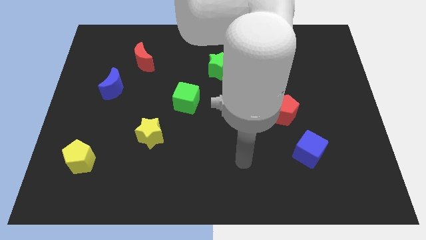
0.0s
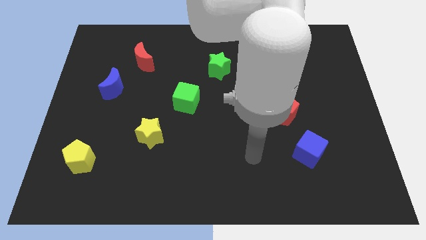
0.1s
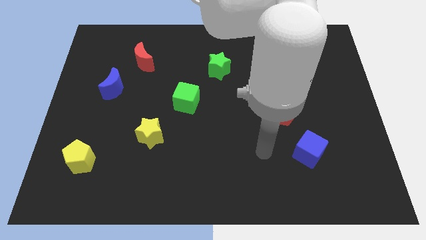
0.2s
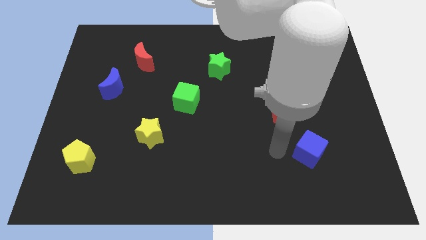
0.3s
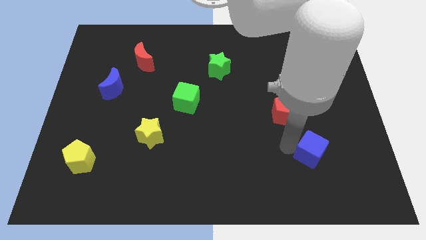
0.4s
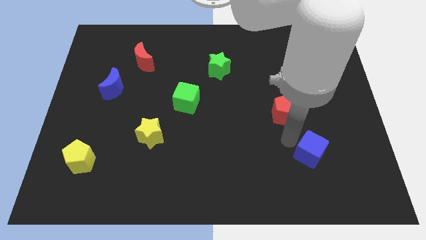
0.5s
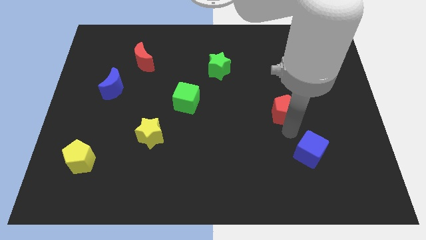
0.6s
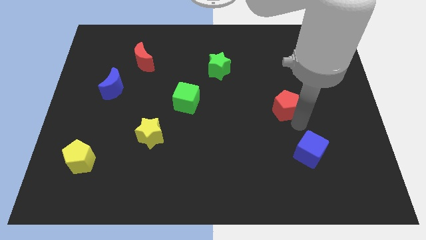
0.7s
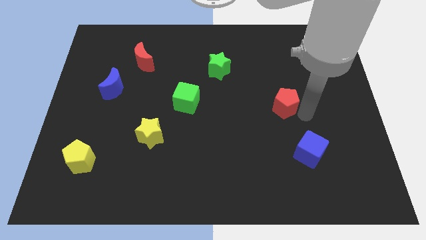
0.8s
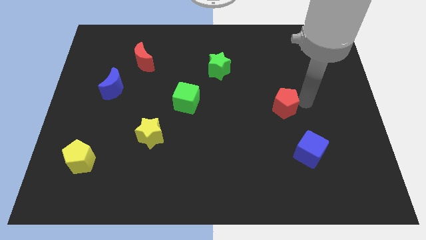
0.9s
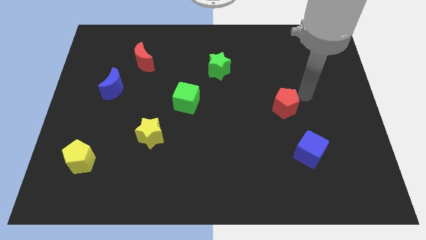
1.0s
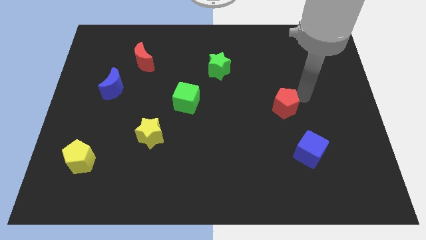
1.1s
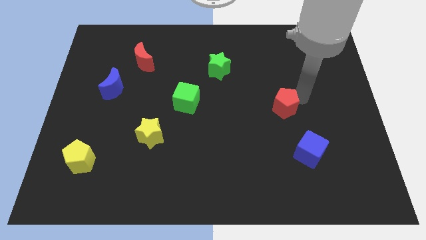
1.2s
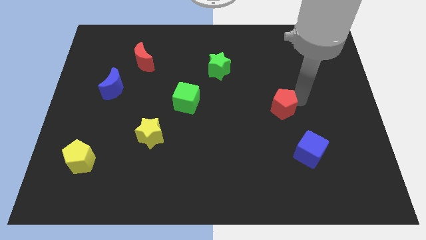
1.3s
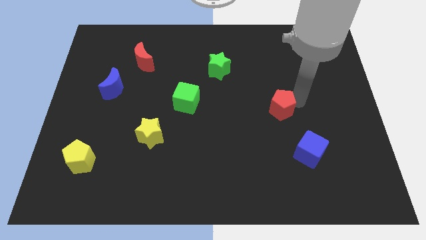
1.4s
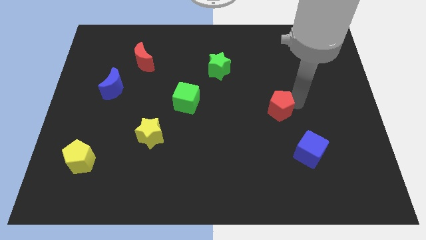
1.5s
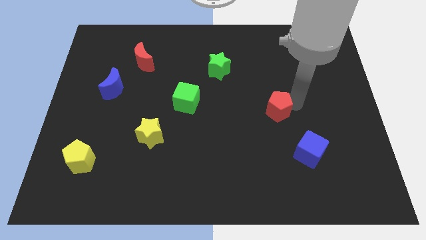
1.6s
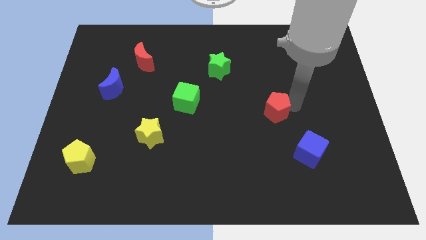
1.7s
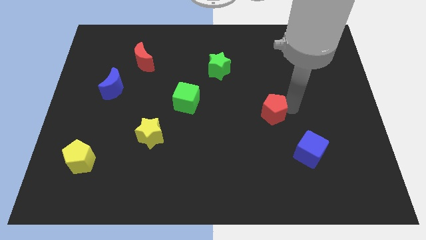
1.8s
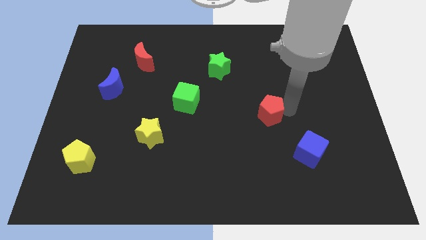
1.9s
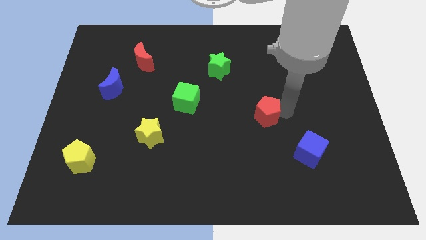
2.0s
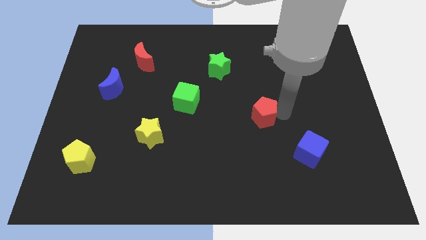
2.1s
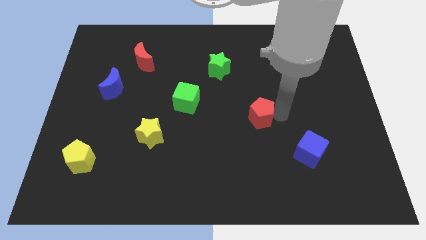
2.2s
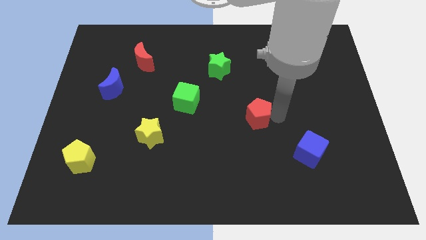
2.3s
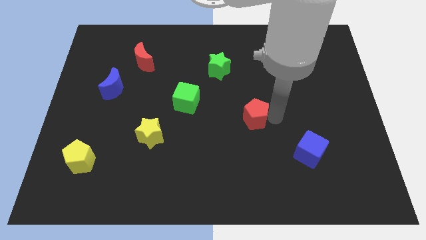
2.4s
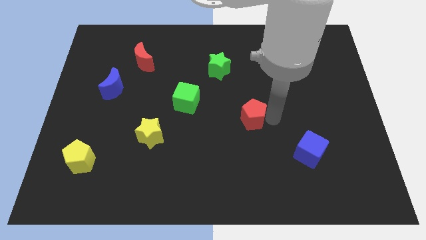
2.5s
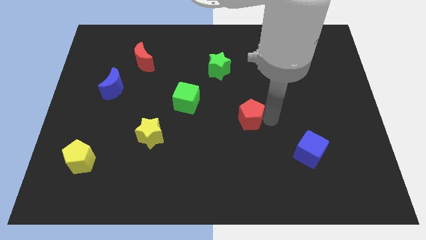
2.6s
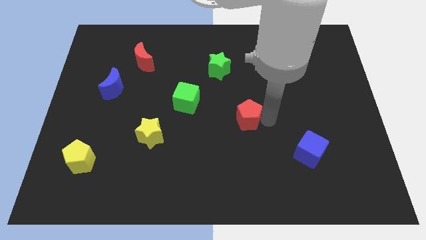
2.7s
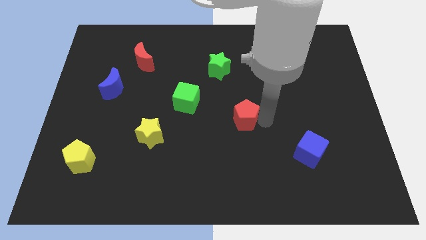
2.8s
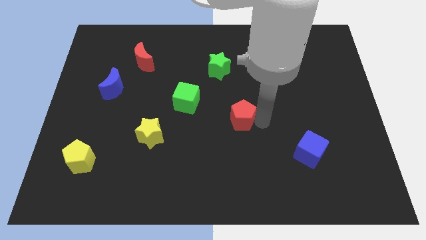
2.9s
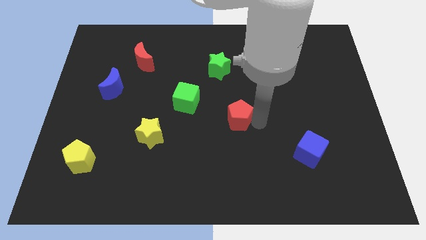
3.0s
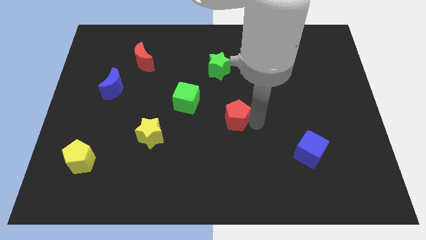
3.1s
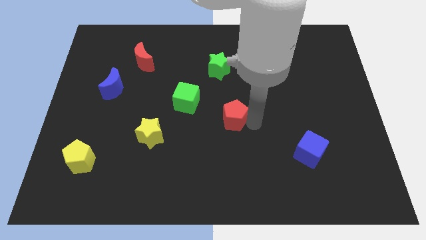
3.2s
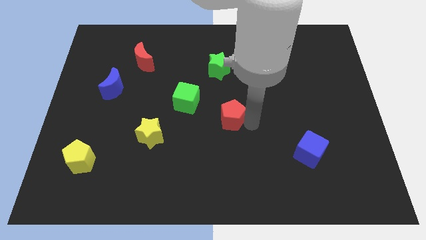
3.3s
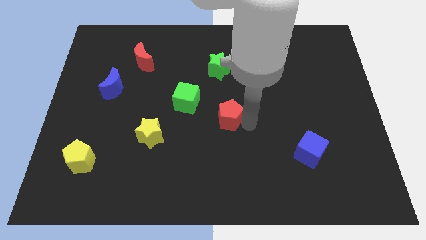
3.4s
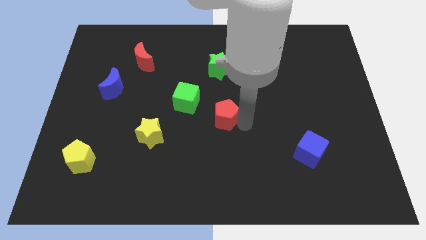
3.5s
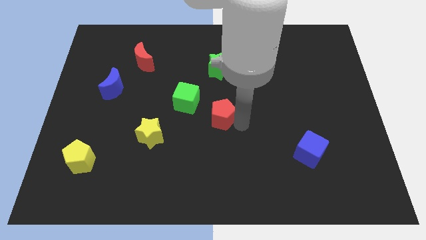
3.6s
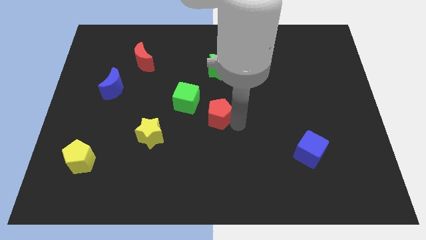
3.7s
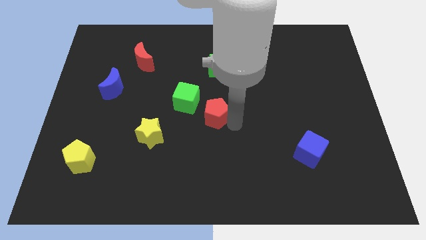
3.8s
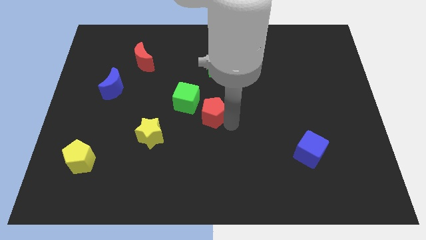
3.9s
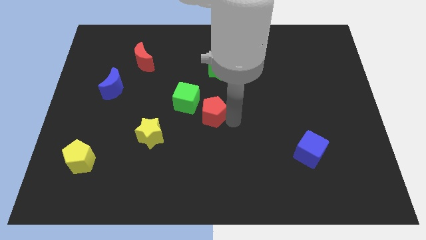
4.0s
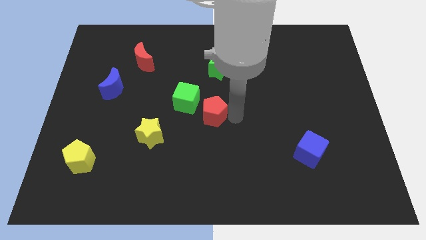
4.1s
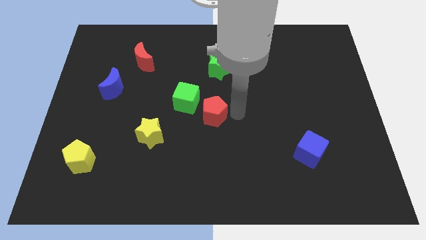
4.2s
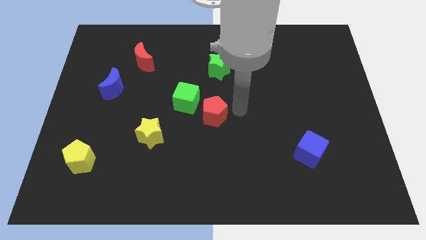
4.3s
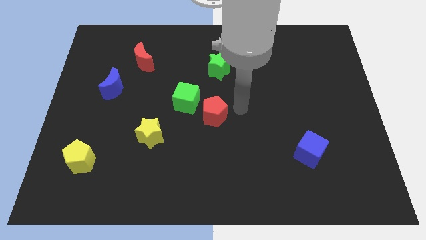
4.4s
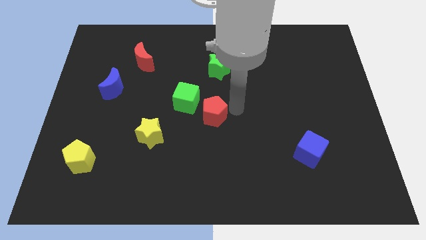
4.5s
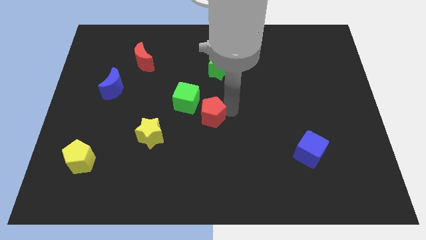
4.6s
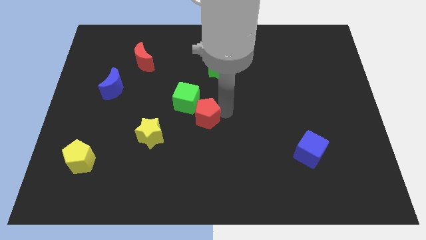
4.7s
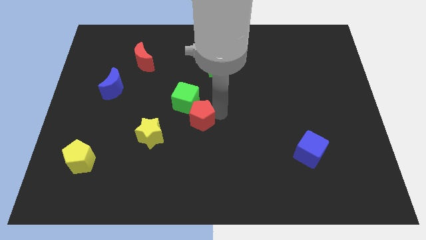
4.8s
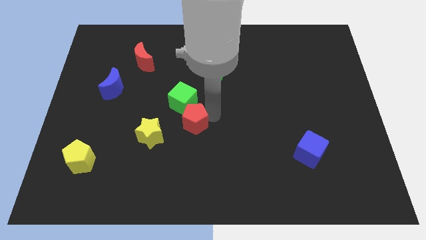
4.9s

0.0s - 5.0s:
push the red pentagon left

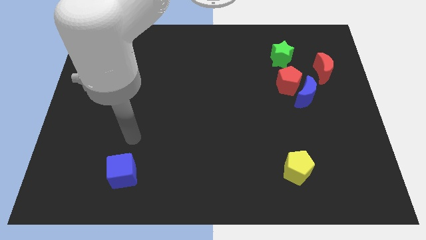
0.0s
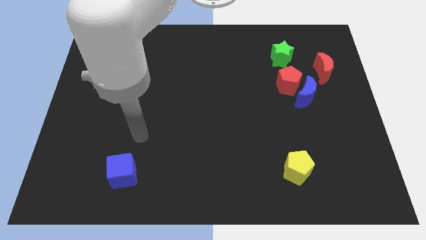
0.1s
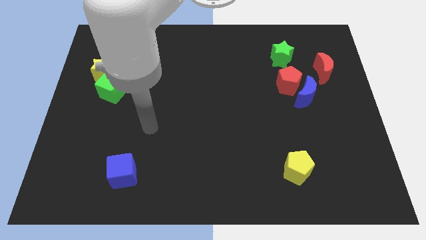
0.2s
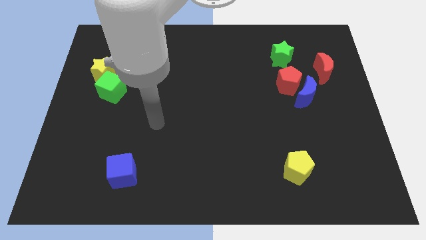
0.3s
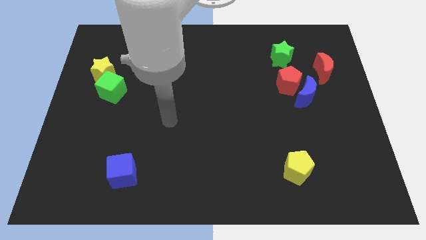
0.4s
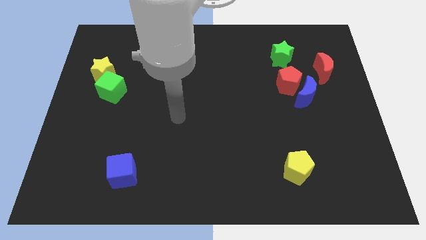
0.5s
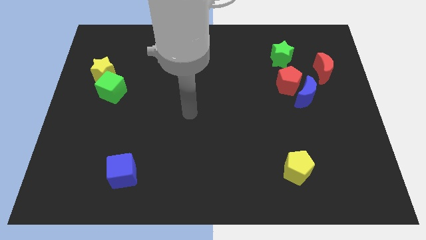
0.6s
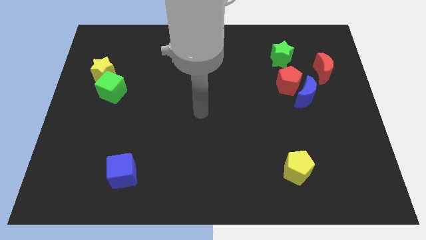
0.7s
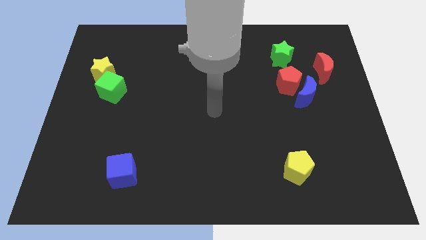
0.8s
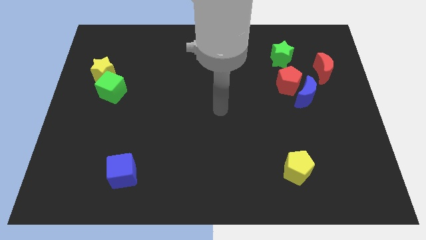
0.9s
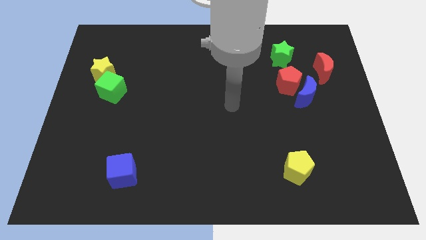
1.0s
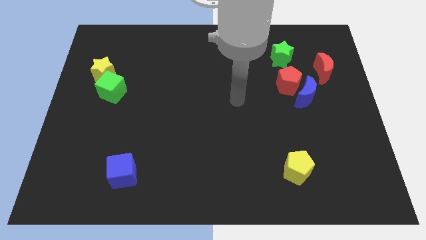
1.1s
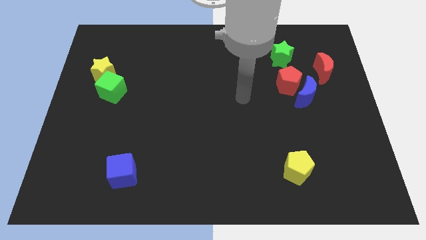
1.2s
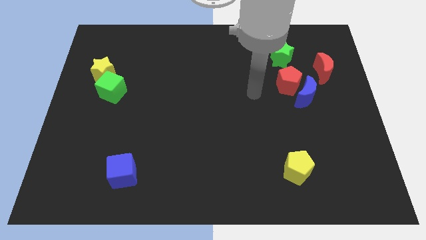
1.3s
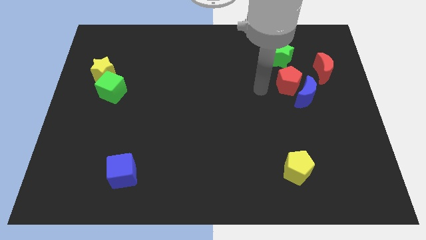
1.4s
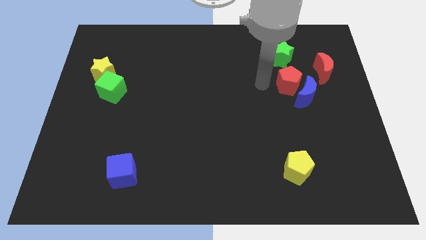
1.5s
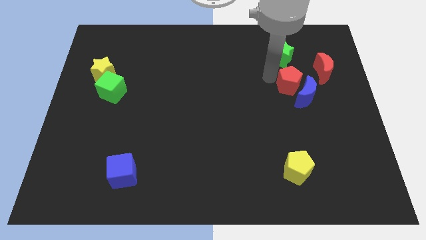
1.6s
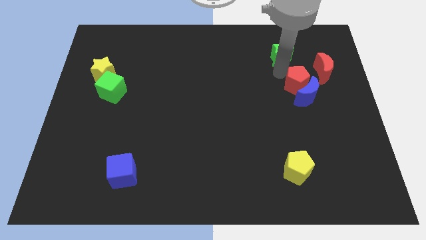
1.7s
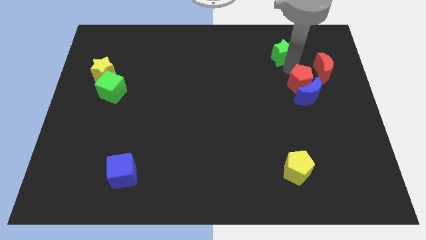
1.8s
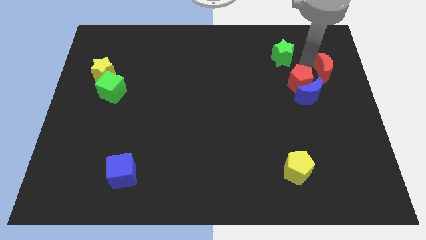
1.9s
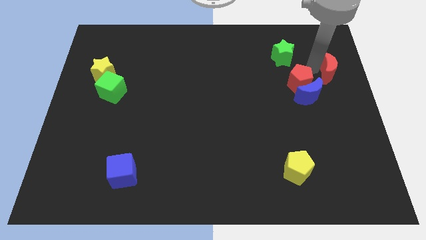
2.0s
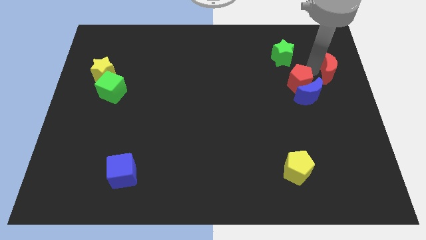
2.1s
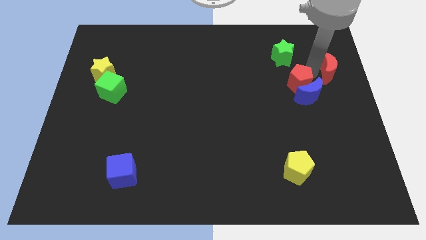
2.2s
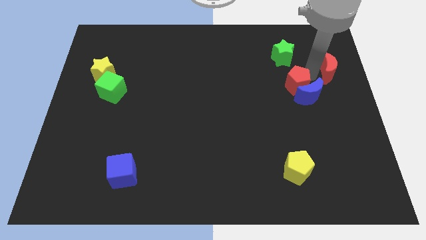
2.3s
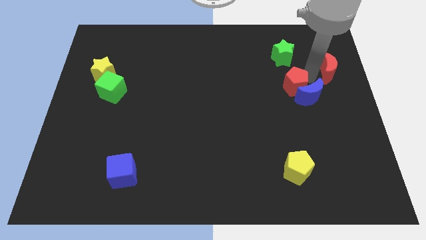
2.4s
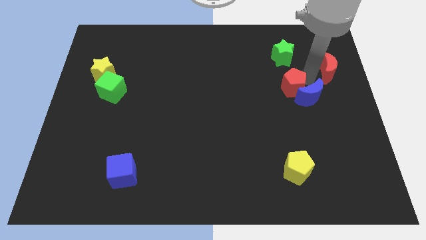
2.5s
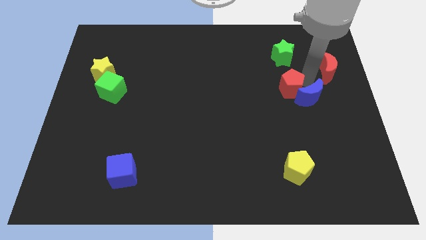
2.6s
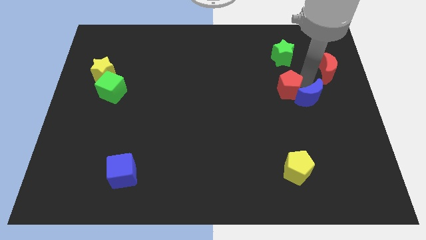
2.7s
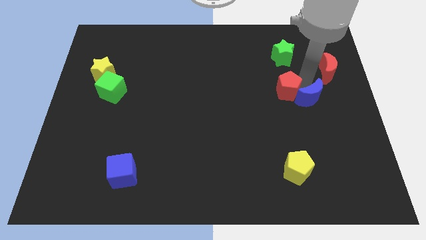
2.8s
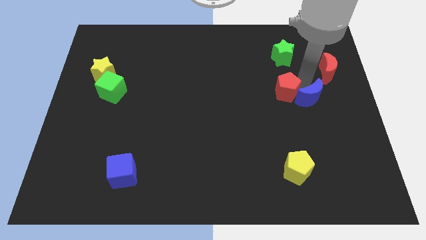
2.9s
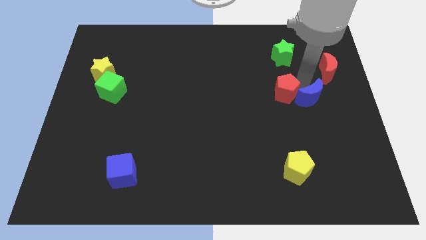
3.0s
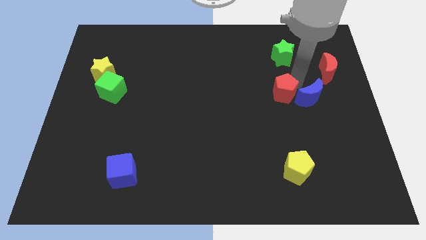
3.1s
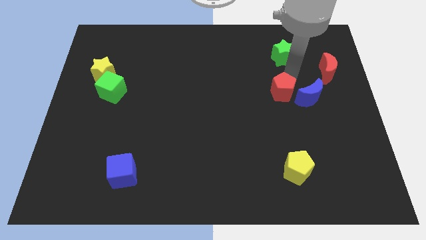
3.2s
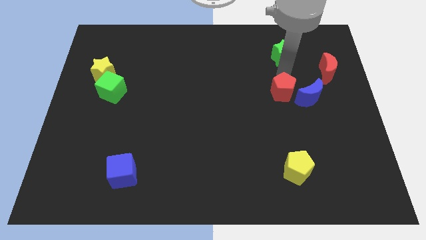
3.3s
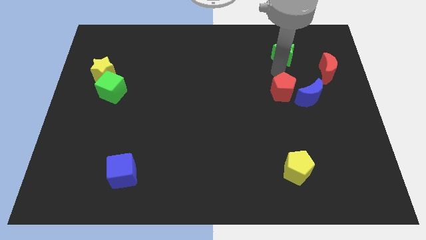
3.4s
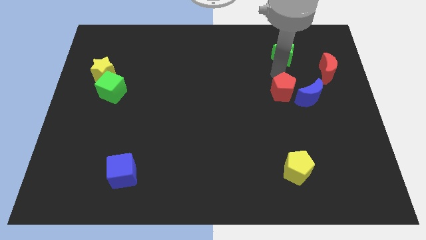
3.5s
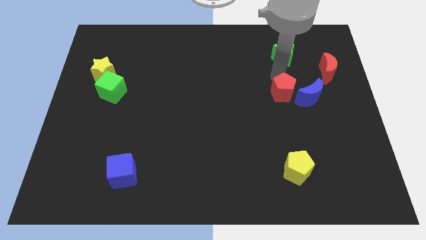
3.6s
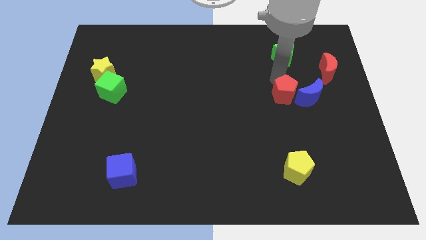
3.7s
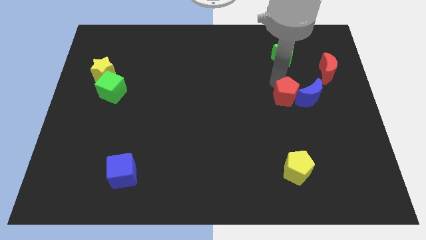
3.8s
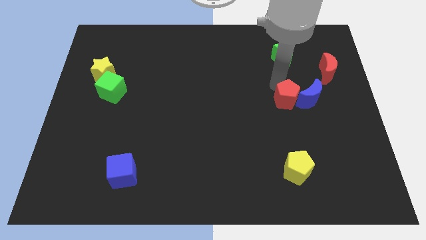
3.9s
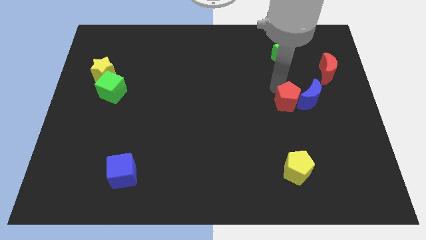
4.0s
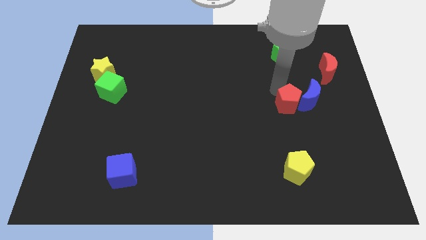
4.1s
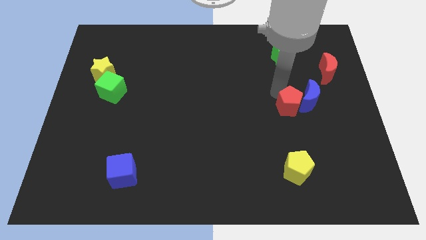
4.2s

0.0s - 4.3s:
slide the red pentagon down a little
